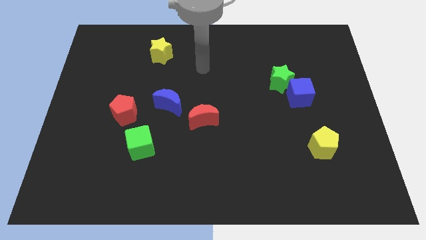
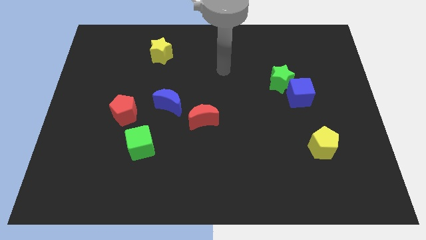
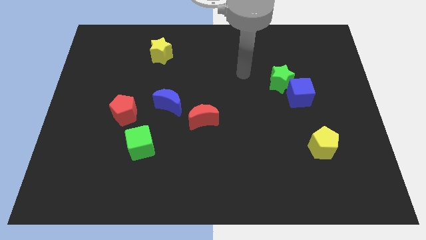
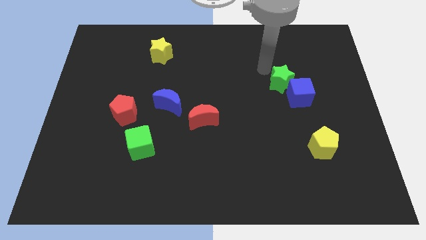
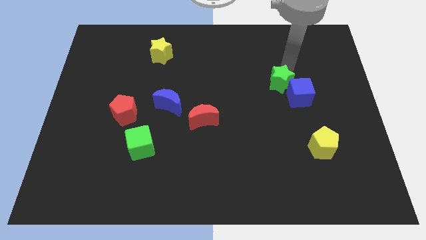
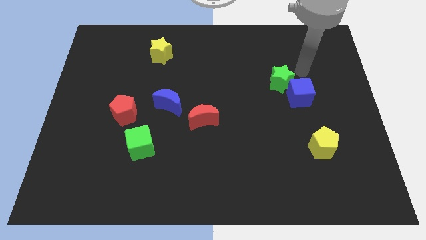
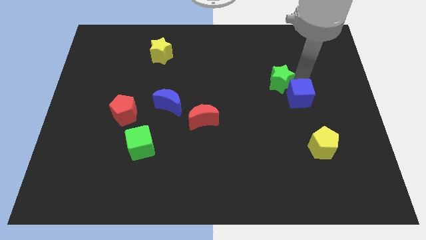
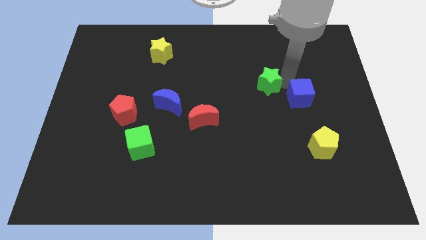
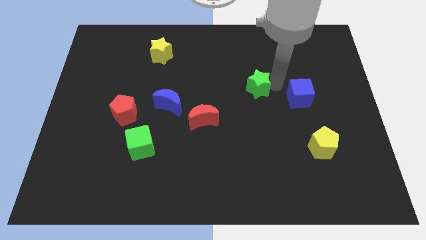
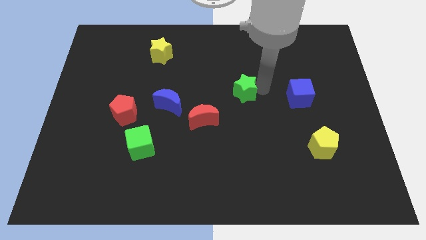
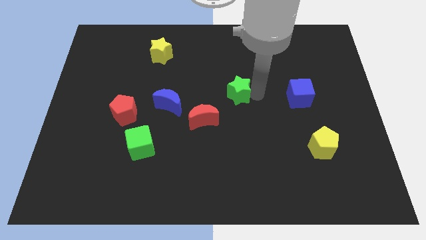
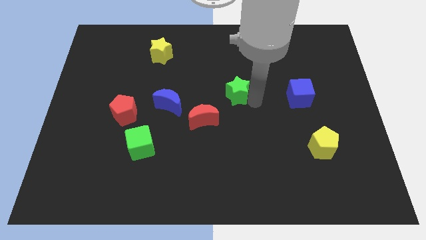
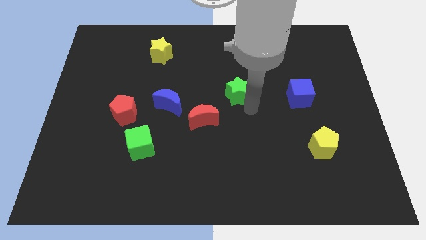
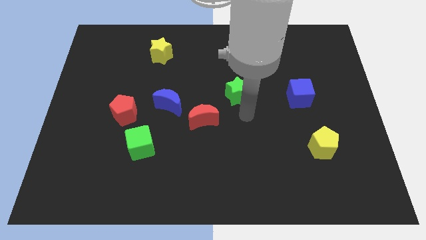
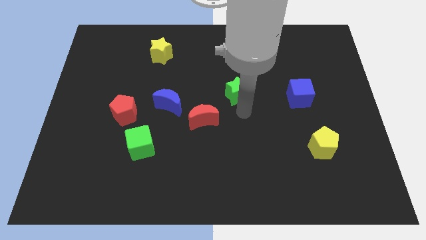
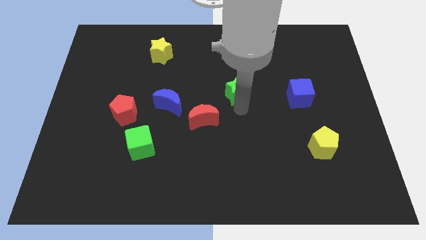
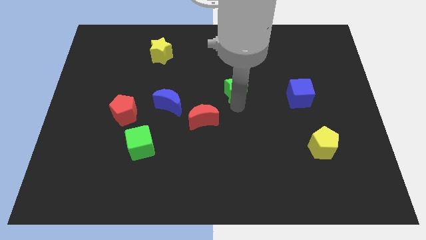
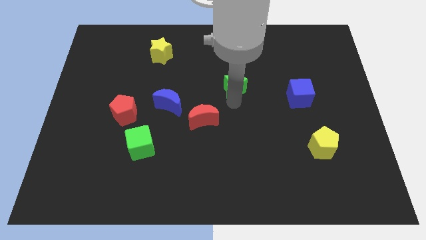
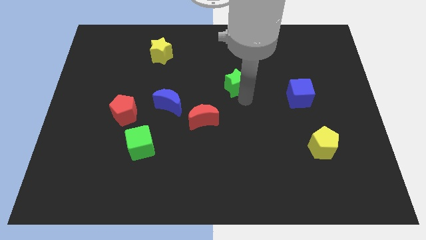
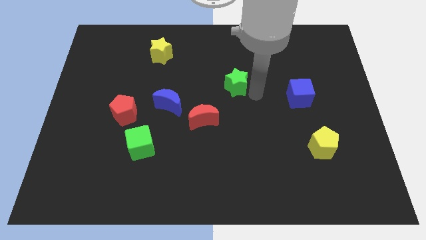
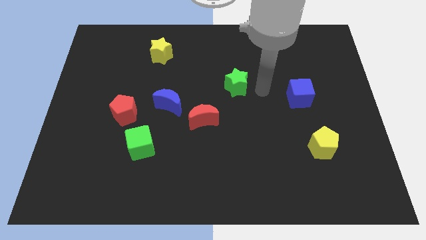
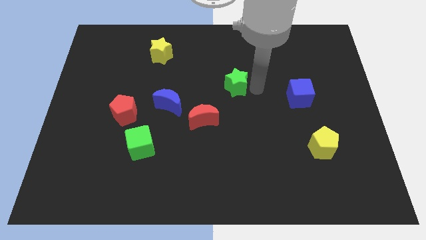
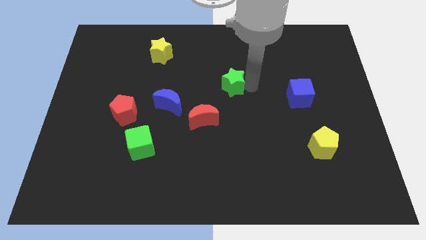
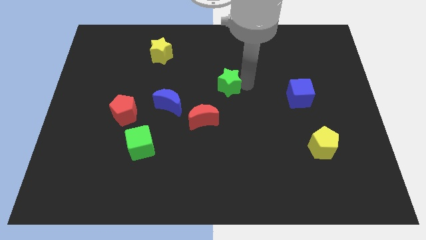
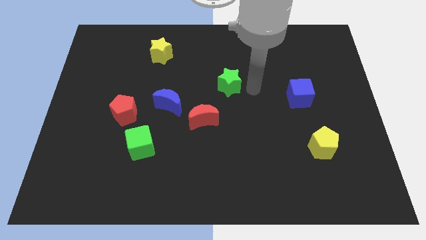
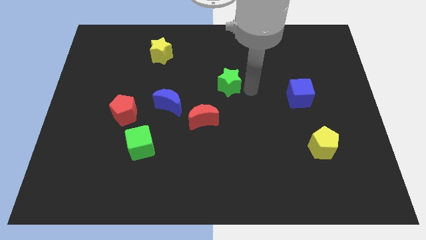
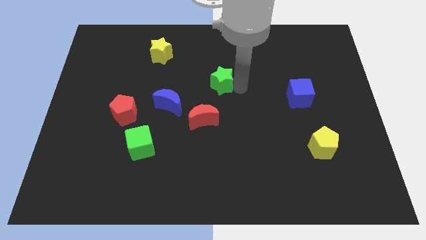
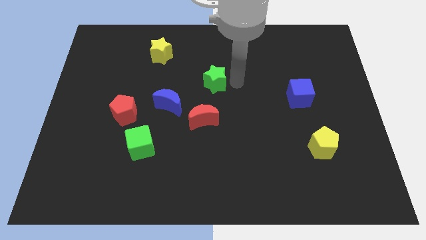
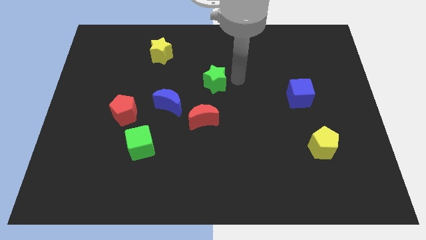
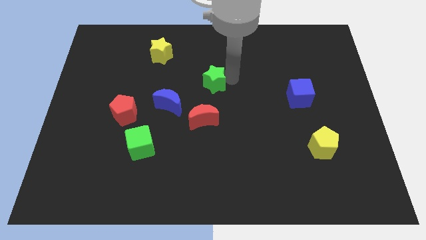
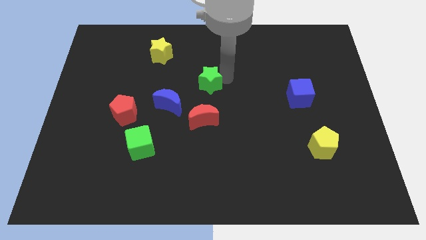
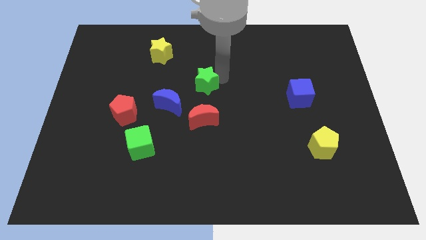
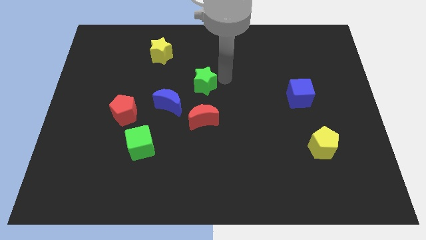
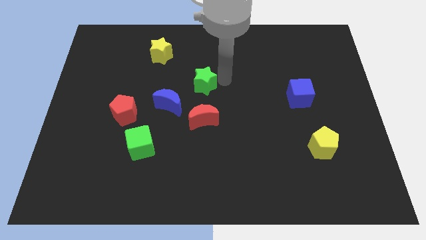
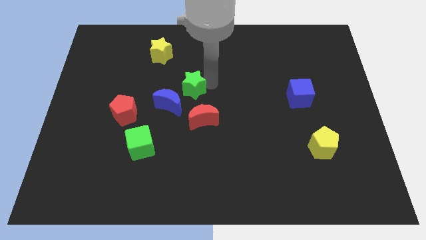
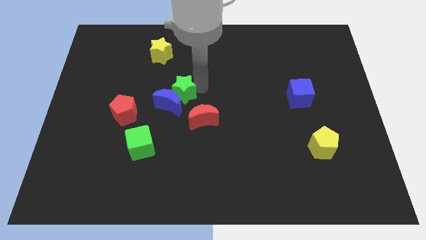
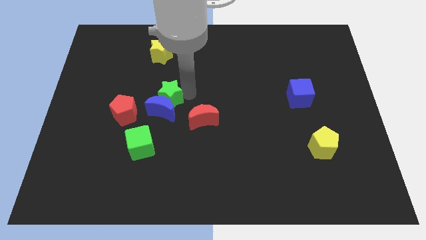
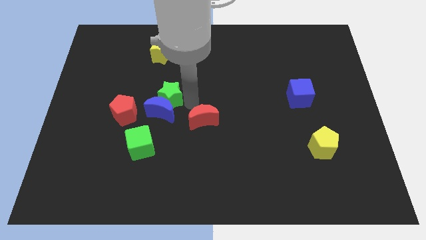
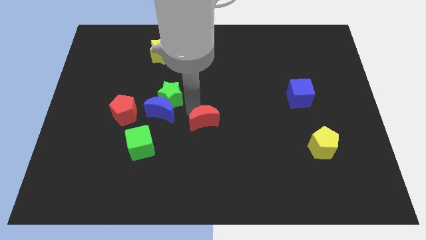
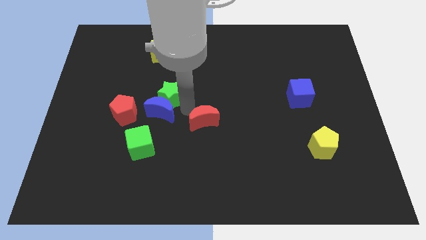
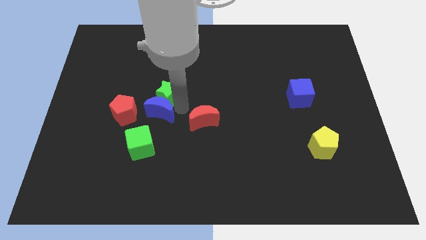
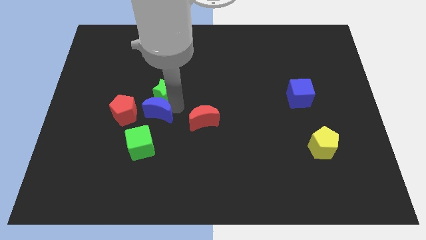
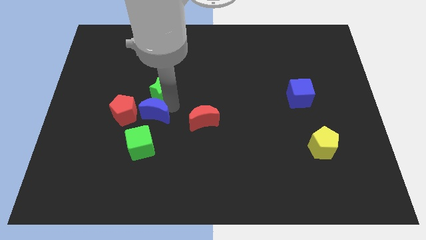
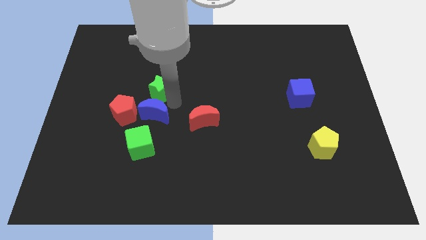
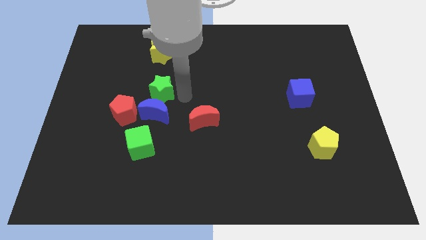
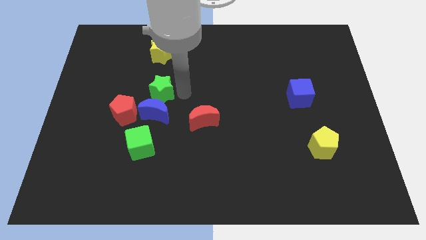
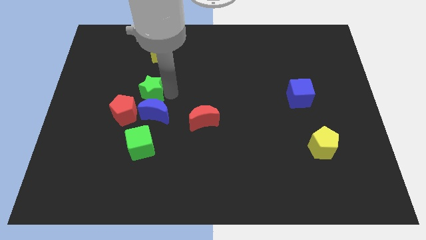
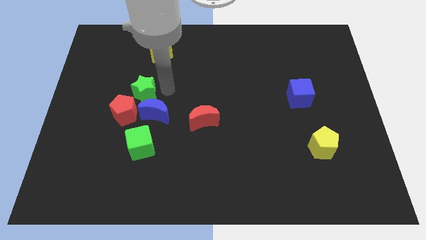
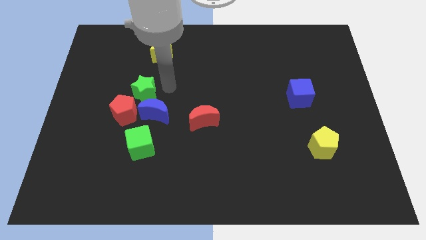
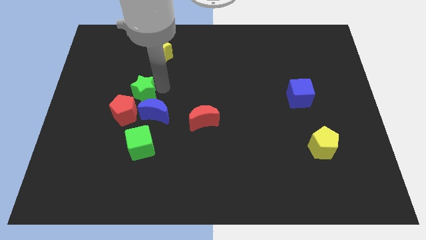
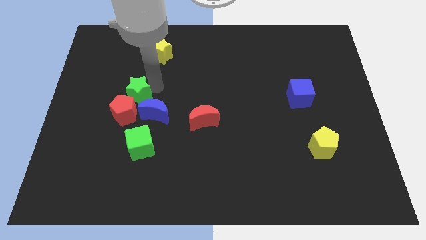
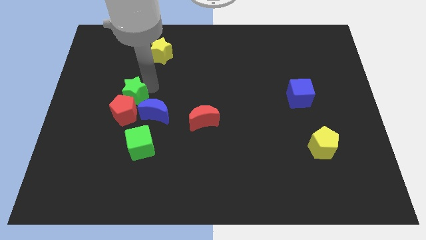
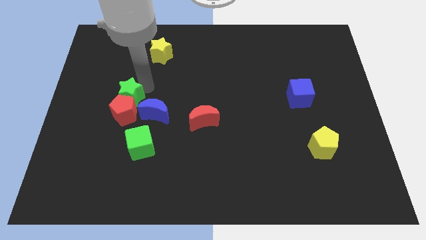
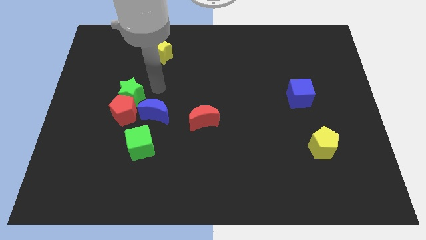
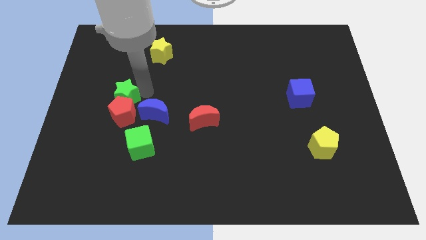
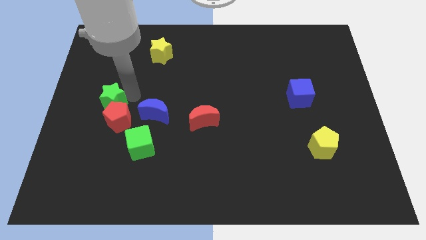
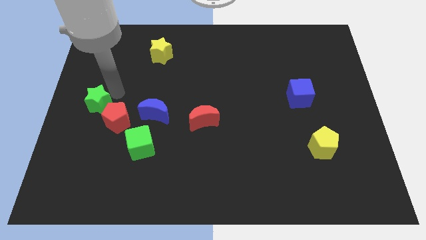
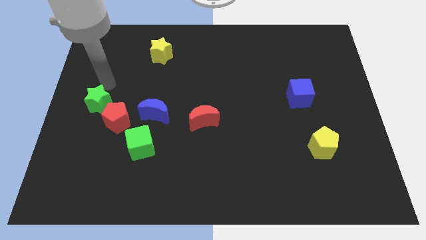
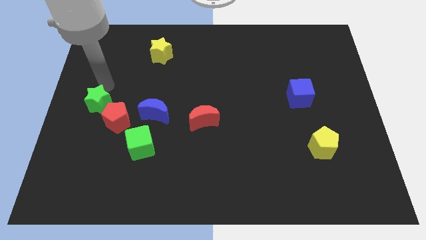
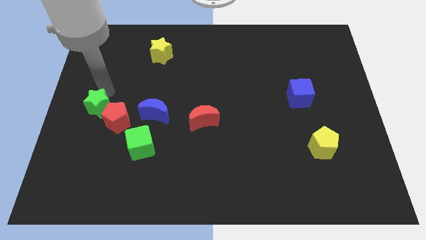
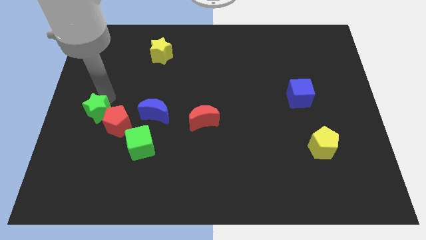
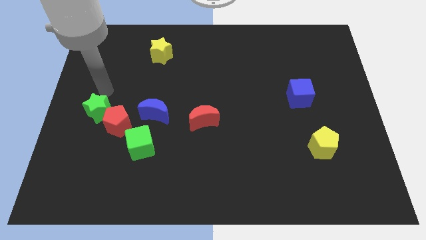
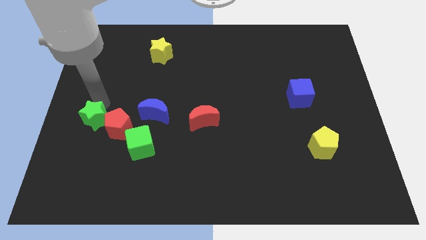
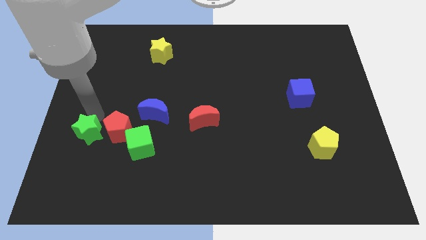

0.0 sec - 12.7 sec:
slide the green star to the bottom left of the red pentagon

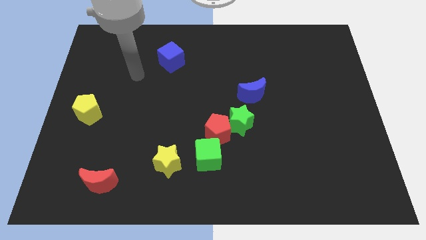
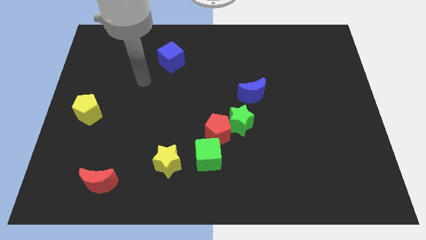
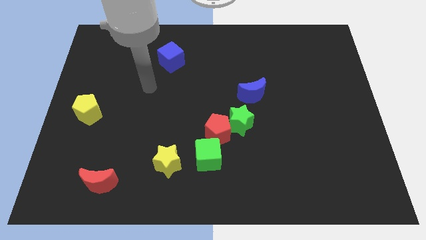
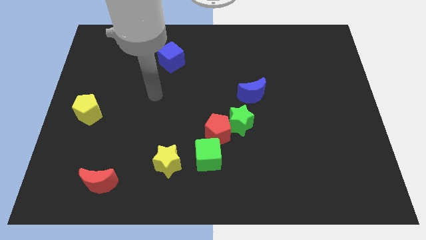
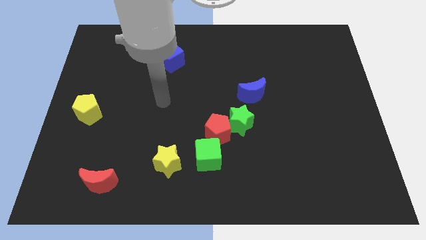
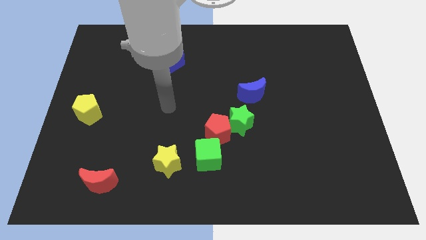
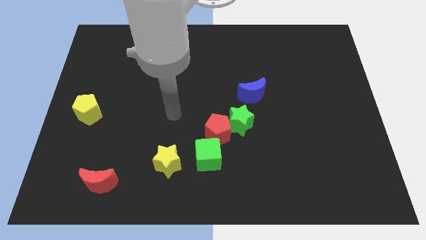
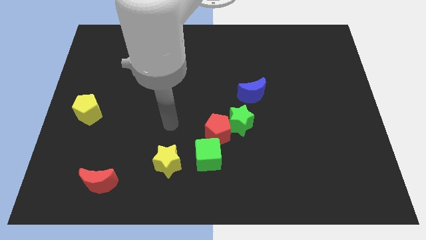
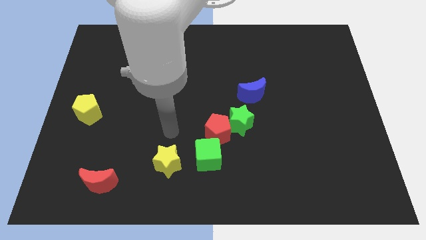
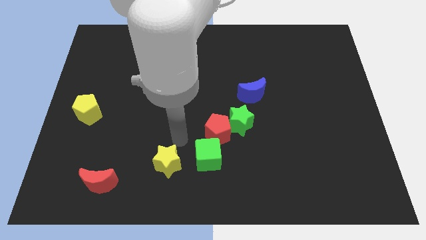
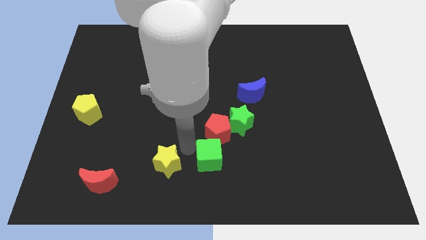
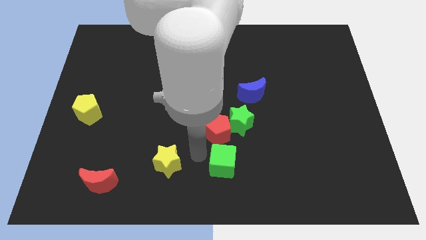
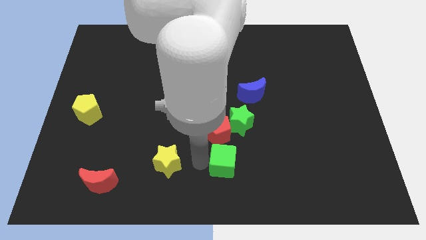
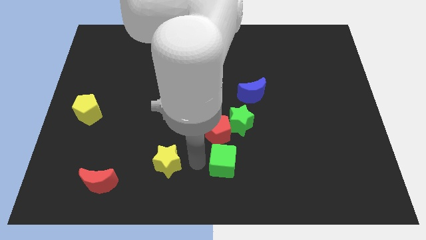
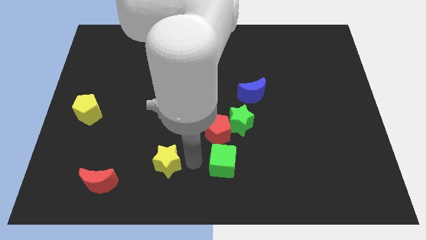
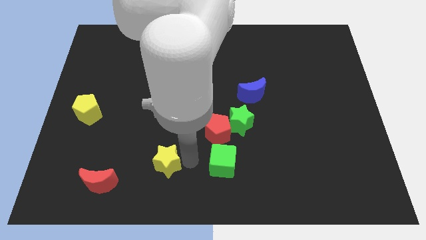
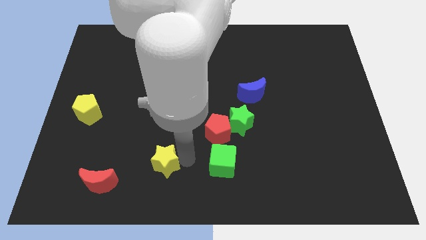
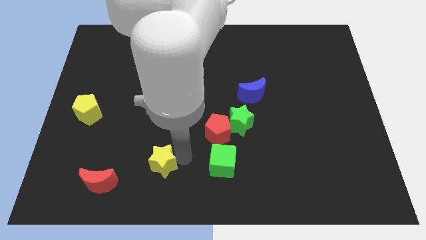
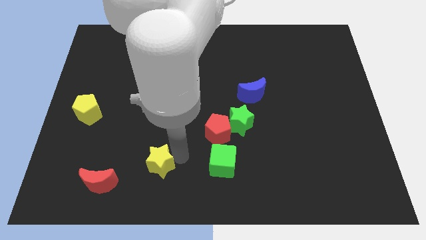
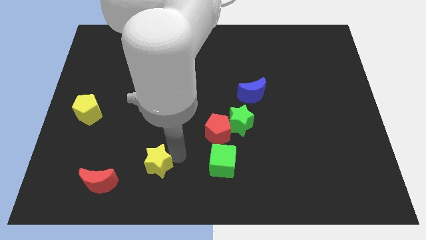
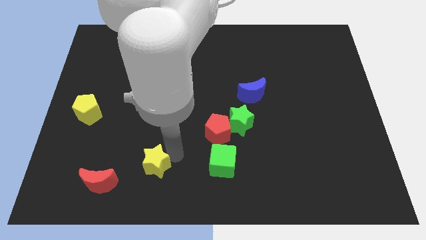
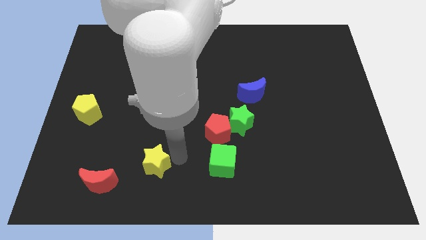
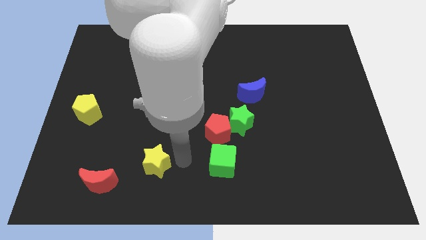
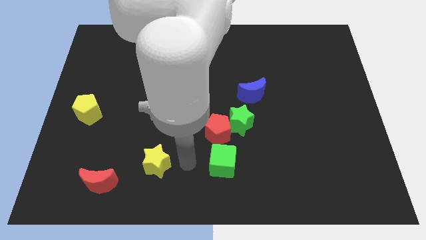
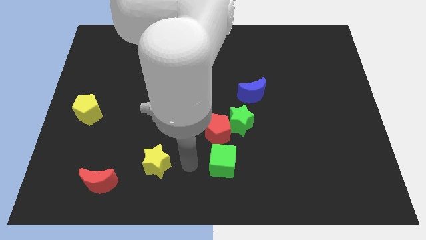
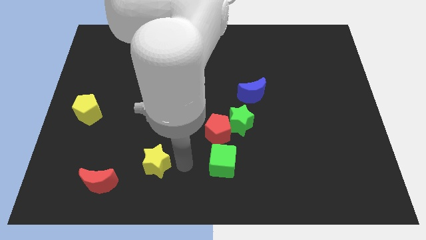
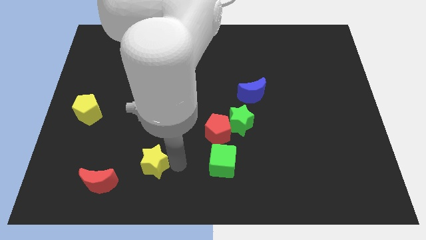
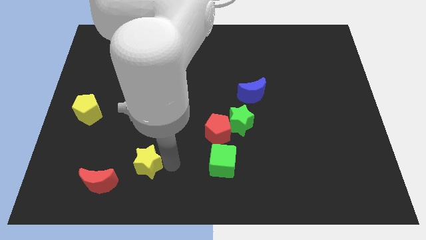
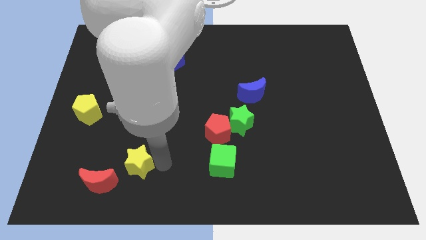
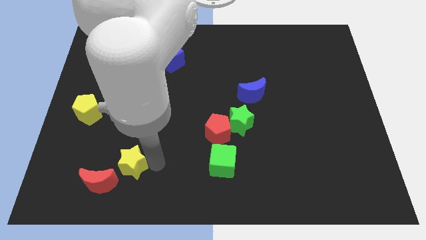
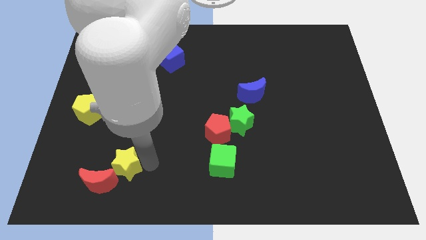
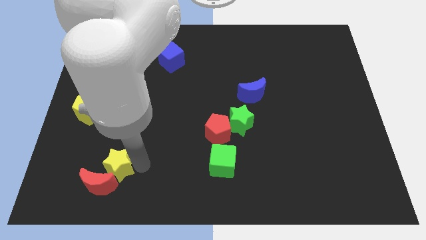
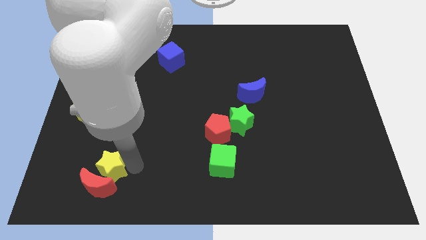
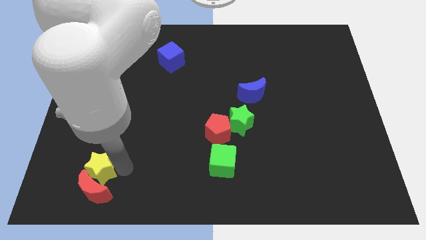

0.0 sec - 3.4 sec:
move the yellow star to the top left of the red moon
